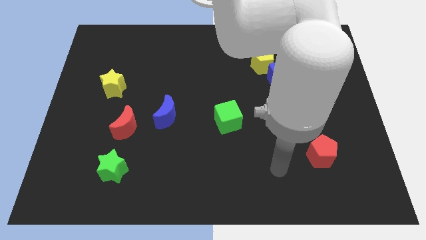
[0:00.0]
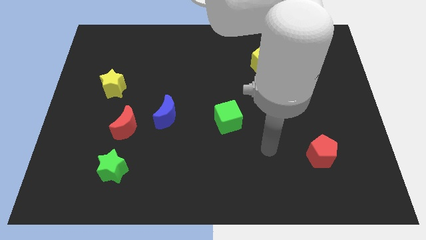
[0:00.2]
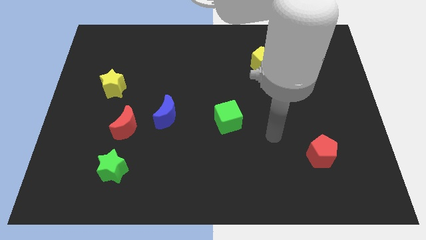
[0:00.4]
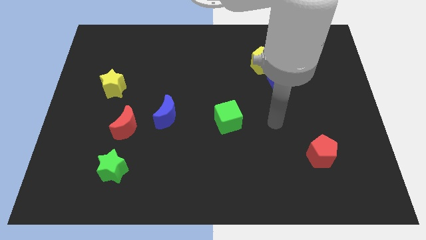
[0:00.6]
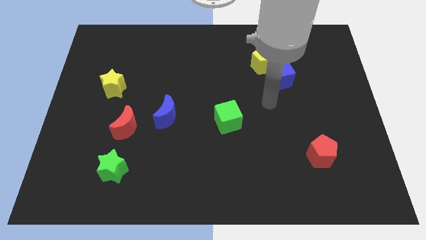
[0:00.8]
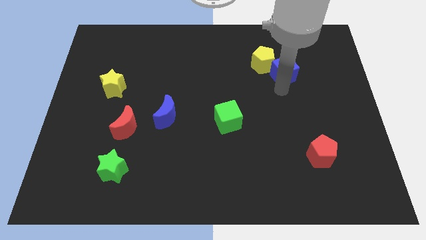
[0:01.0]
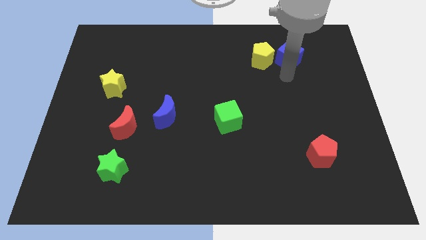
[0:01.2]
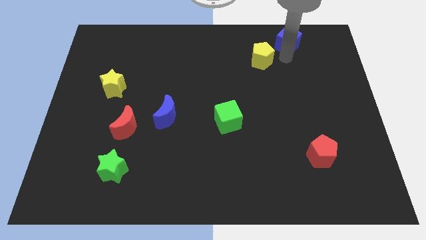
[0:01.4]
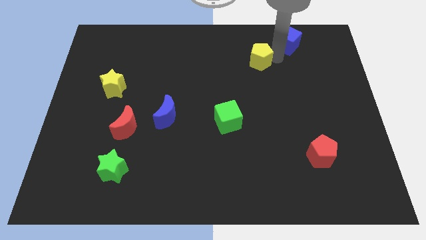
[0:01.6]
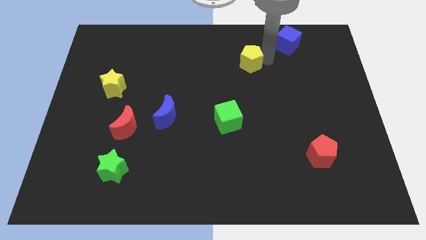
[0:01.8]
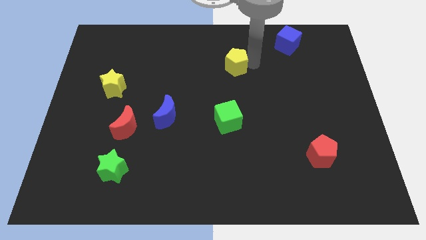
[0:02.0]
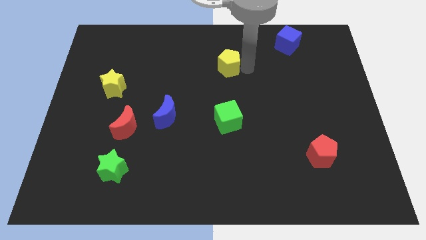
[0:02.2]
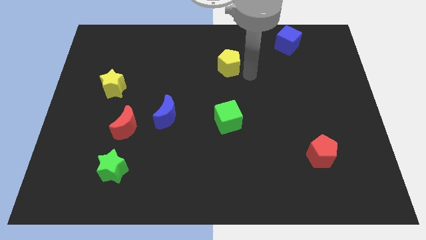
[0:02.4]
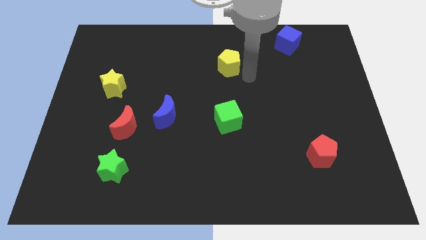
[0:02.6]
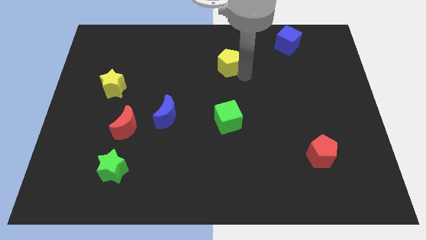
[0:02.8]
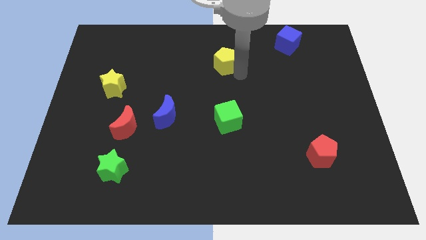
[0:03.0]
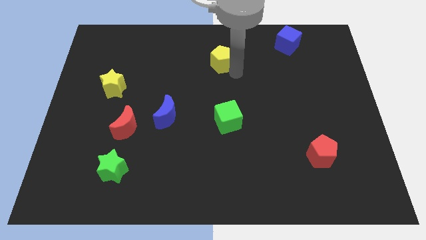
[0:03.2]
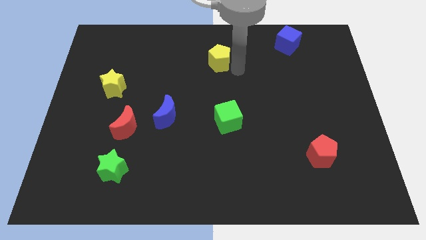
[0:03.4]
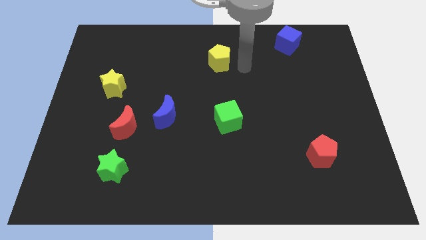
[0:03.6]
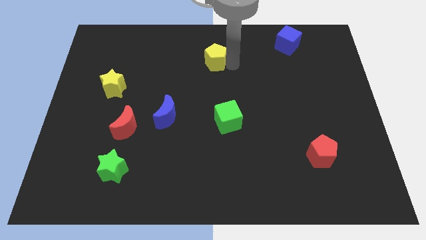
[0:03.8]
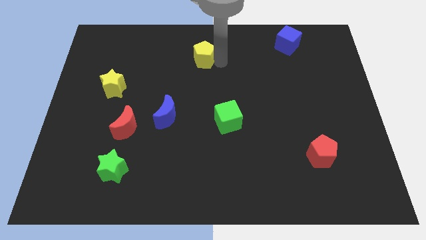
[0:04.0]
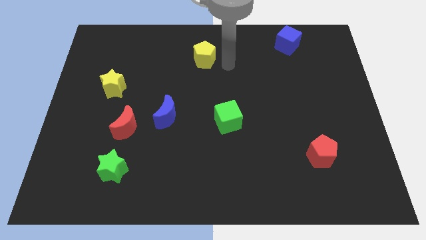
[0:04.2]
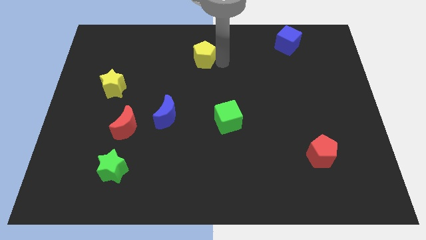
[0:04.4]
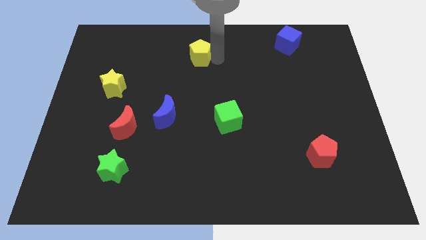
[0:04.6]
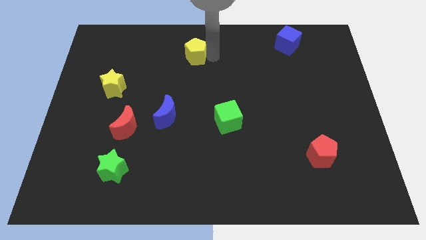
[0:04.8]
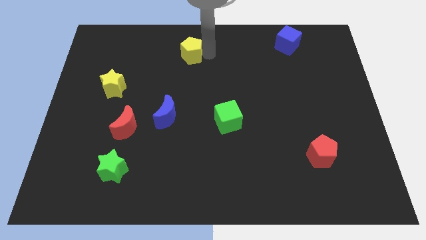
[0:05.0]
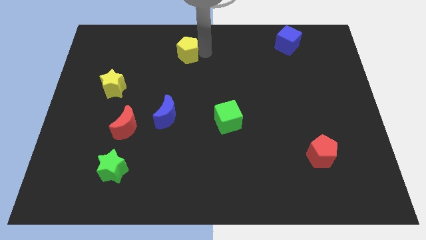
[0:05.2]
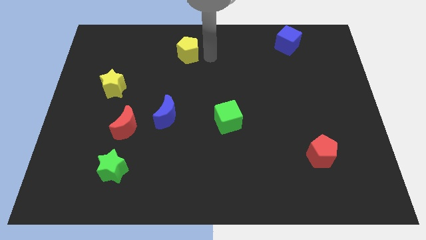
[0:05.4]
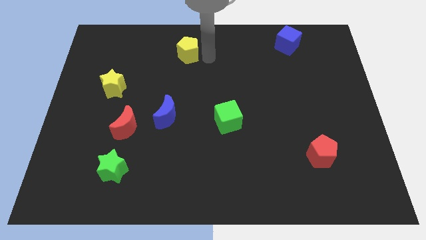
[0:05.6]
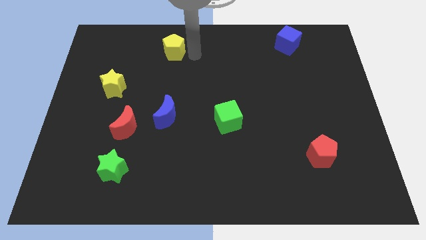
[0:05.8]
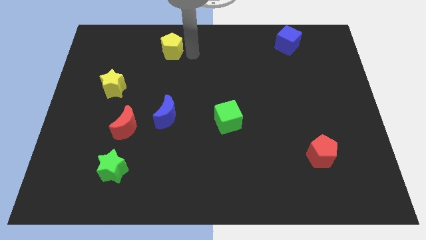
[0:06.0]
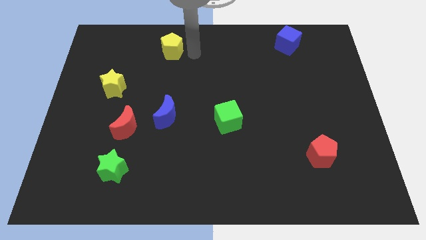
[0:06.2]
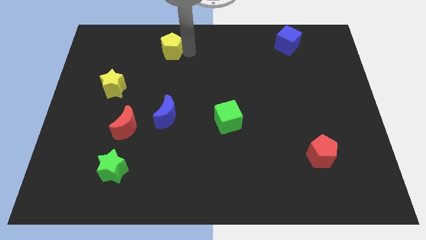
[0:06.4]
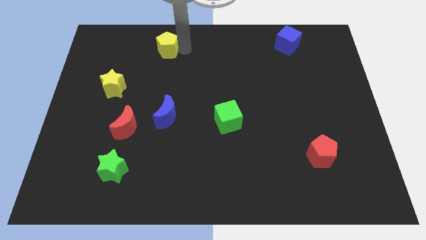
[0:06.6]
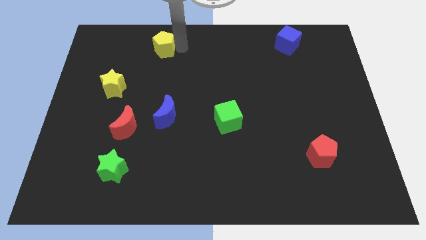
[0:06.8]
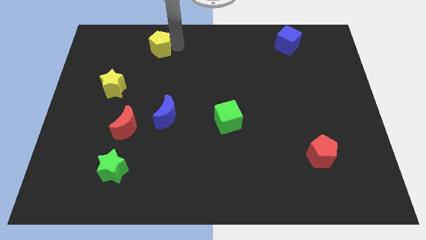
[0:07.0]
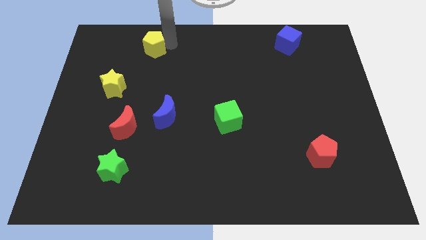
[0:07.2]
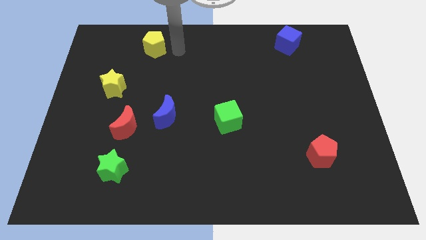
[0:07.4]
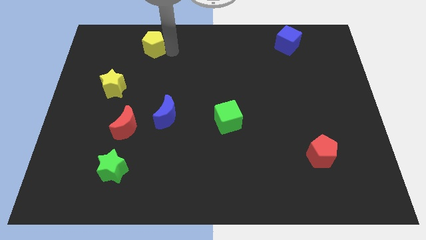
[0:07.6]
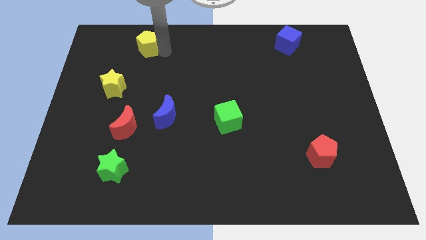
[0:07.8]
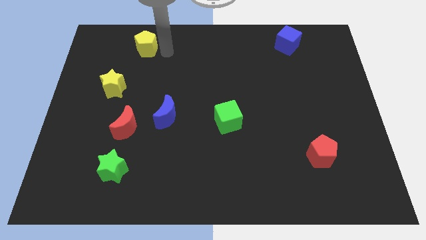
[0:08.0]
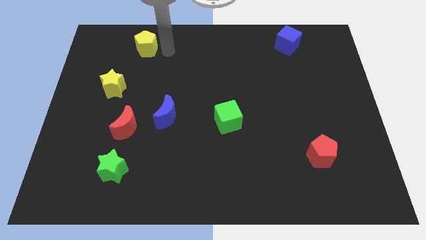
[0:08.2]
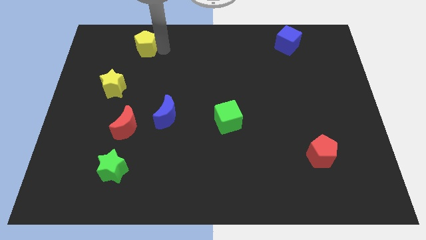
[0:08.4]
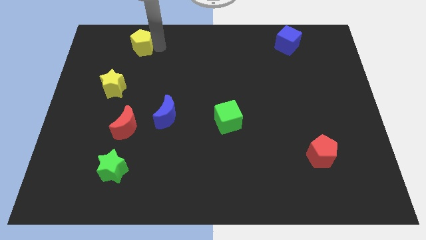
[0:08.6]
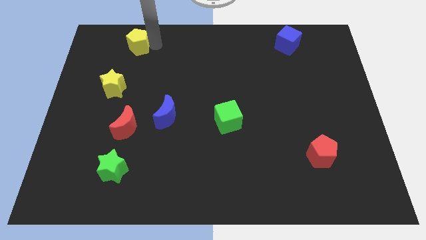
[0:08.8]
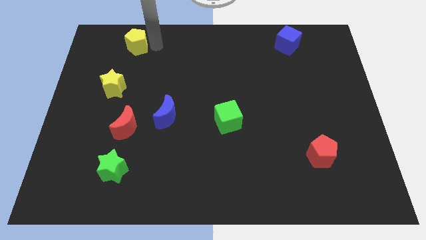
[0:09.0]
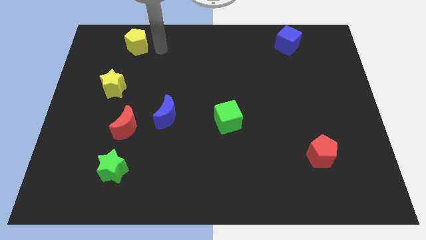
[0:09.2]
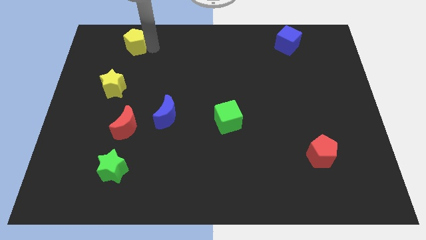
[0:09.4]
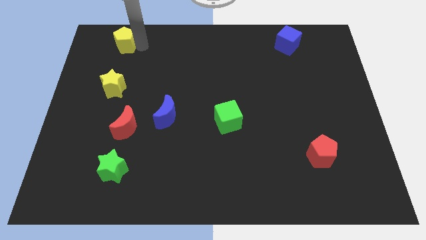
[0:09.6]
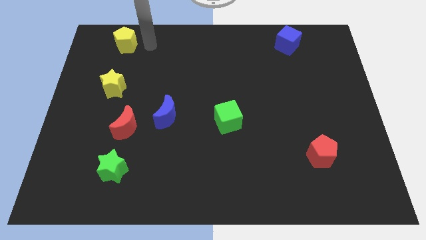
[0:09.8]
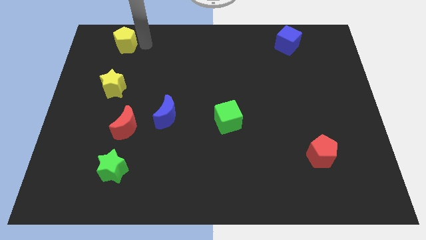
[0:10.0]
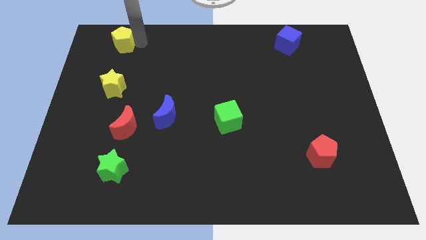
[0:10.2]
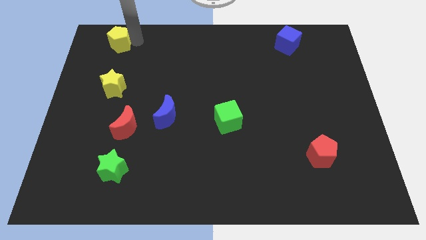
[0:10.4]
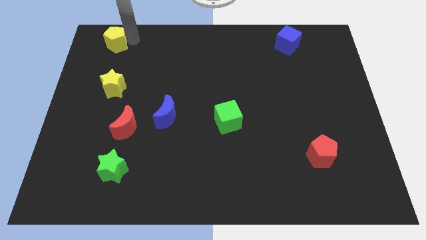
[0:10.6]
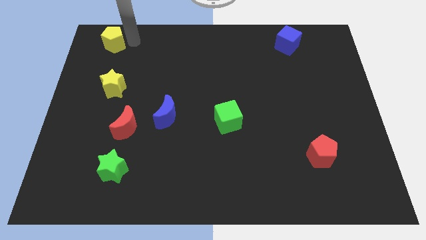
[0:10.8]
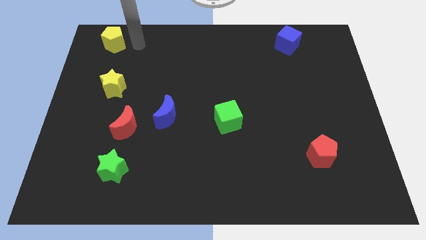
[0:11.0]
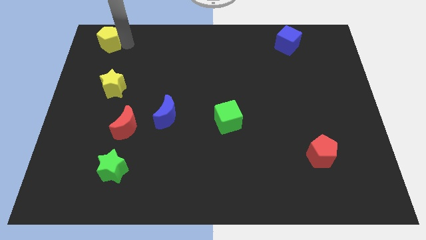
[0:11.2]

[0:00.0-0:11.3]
put the yellow pentagon to the upper left corner

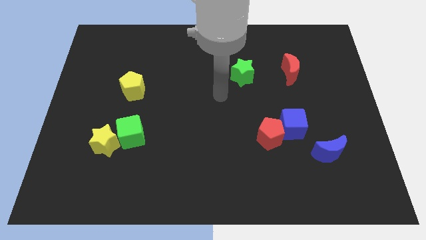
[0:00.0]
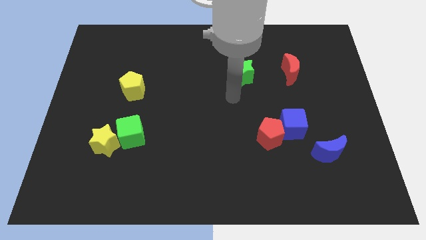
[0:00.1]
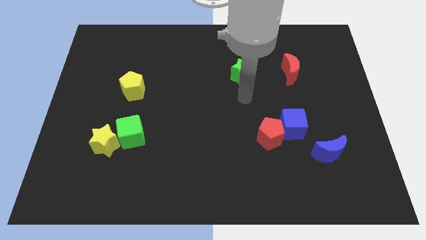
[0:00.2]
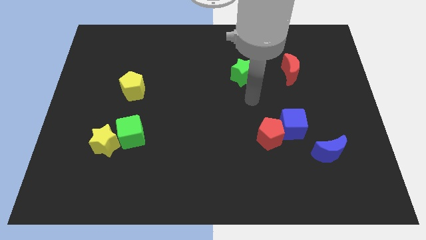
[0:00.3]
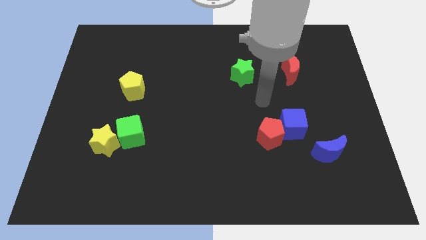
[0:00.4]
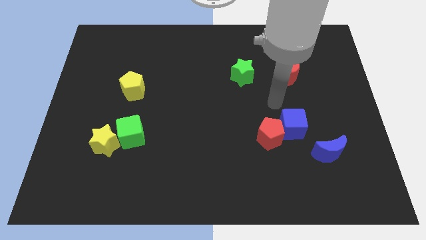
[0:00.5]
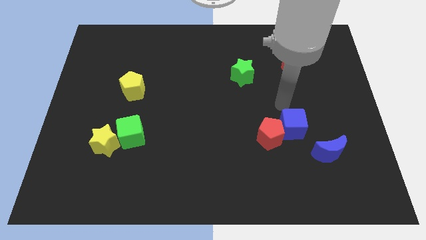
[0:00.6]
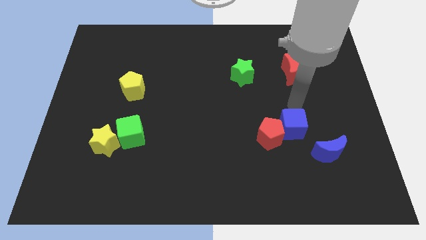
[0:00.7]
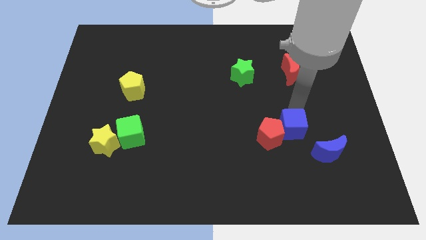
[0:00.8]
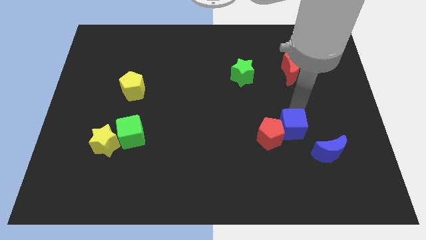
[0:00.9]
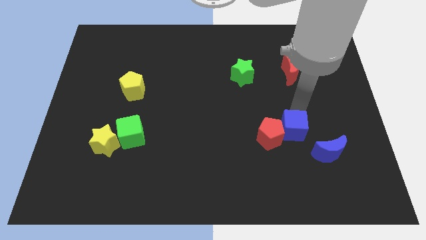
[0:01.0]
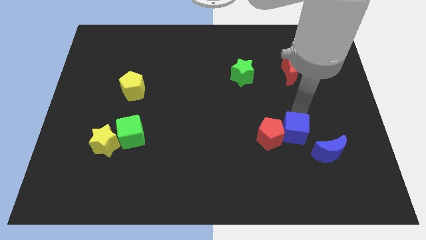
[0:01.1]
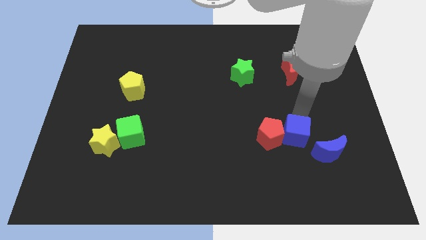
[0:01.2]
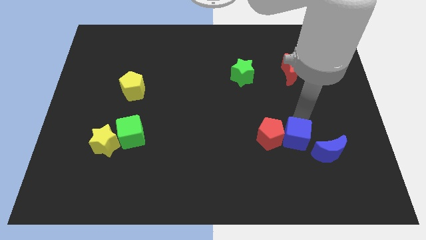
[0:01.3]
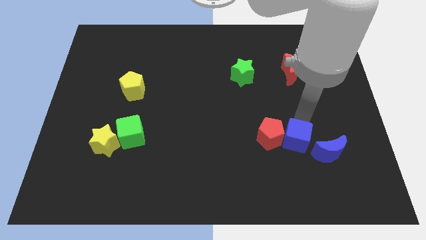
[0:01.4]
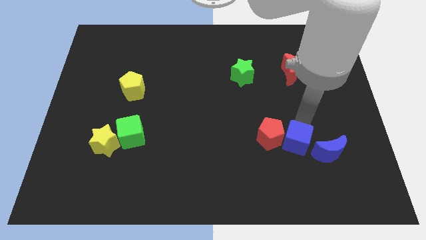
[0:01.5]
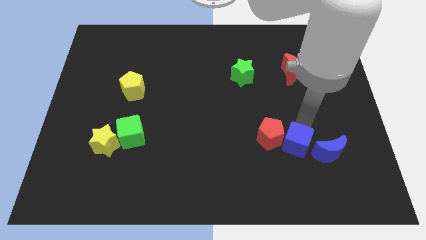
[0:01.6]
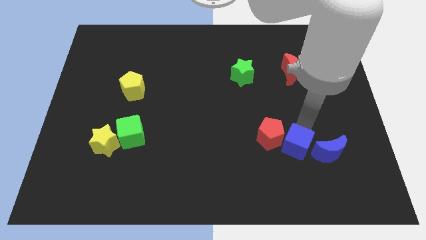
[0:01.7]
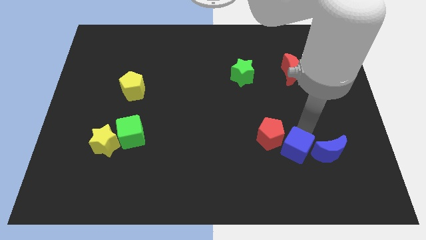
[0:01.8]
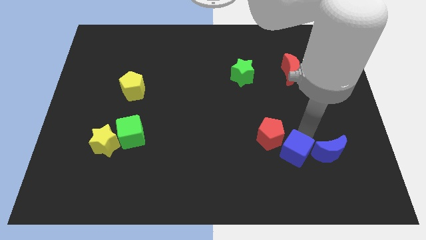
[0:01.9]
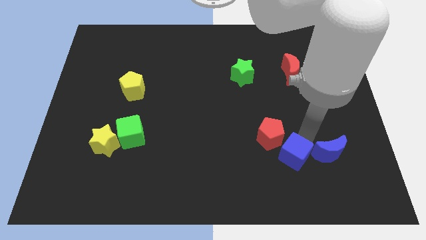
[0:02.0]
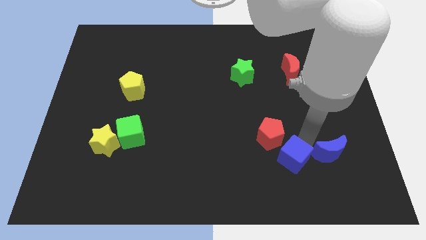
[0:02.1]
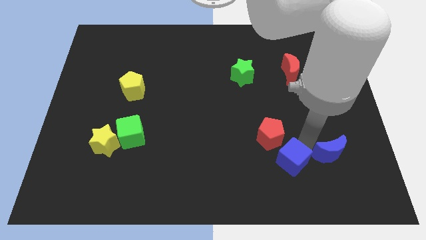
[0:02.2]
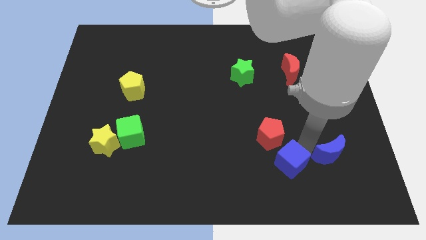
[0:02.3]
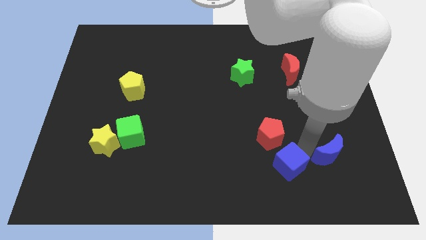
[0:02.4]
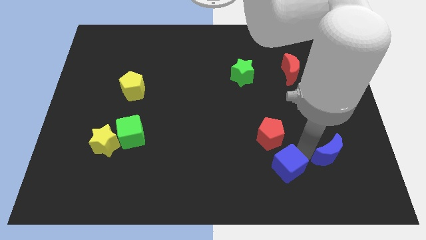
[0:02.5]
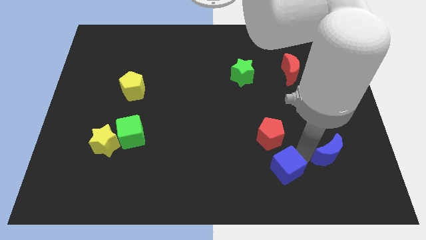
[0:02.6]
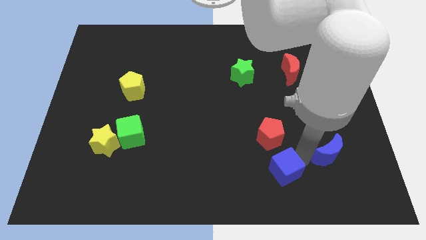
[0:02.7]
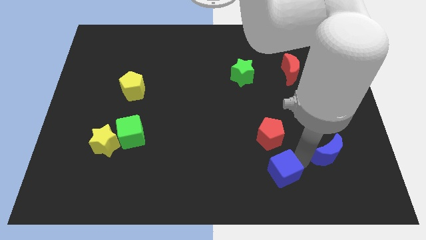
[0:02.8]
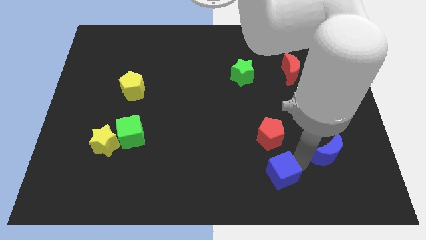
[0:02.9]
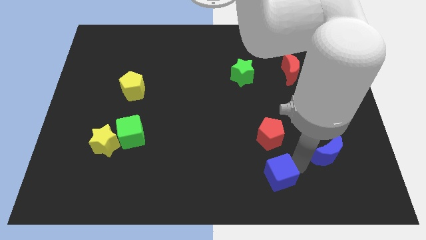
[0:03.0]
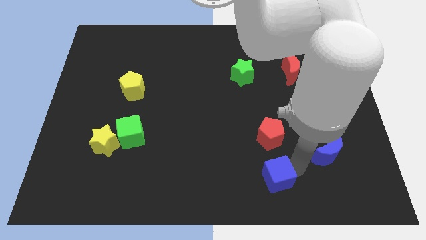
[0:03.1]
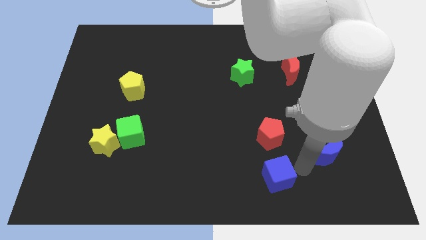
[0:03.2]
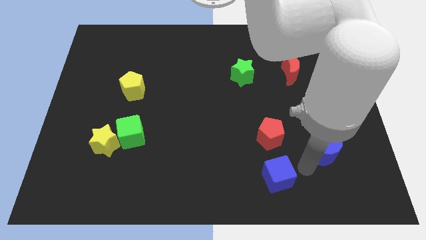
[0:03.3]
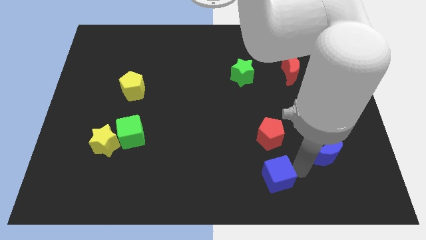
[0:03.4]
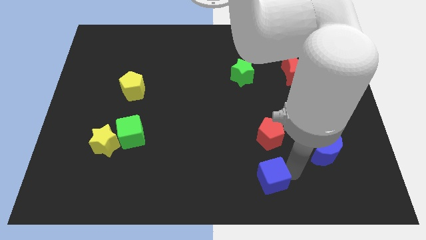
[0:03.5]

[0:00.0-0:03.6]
slide the blue cube to the bottom side
